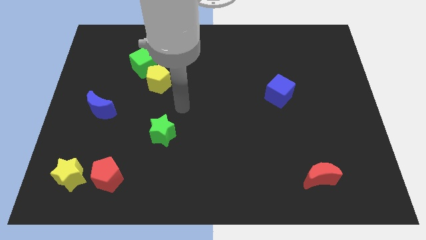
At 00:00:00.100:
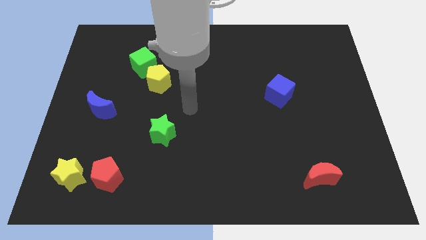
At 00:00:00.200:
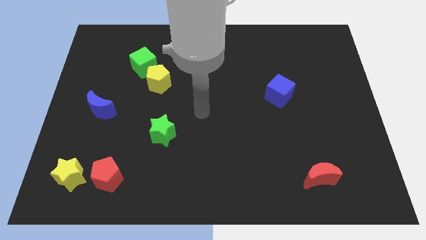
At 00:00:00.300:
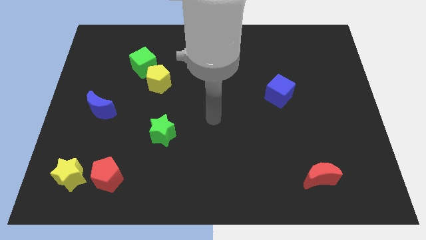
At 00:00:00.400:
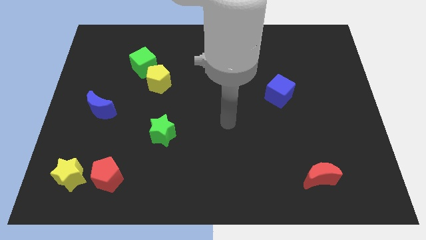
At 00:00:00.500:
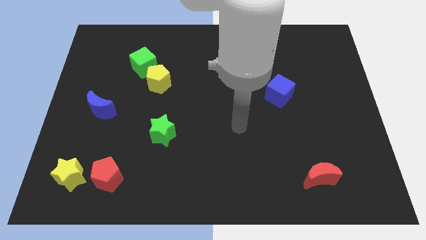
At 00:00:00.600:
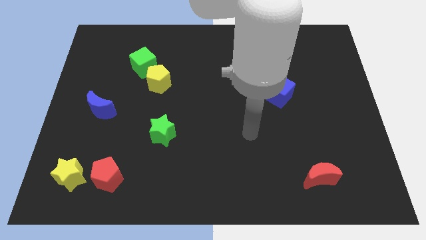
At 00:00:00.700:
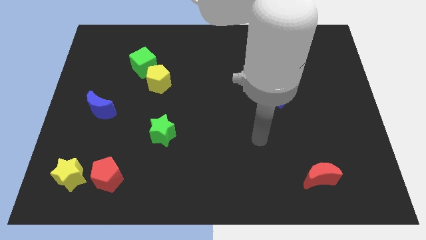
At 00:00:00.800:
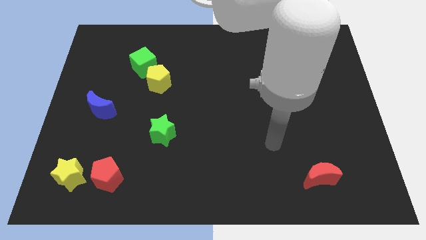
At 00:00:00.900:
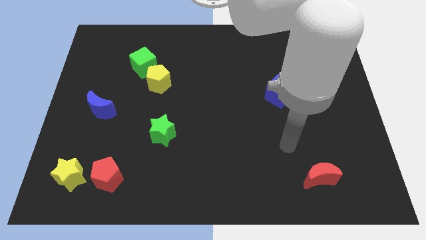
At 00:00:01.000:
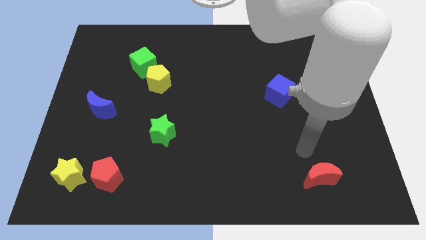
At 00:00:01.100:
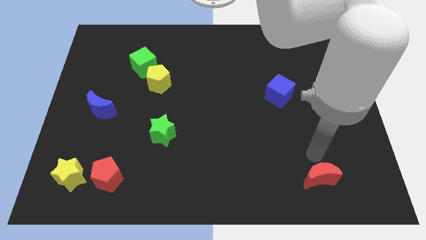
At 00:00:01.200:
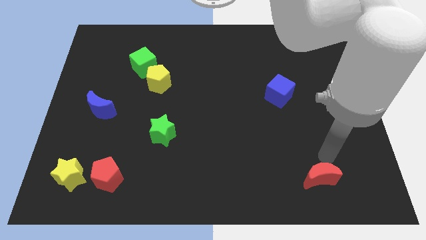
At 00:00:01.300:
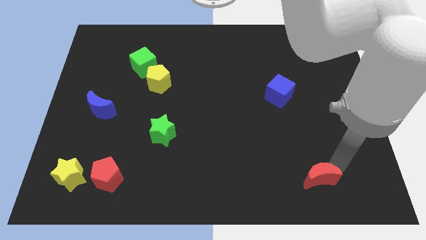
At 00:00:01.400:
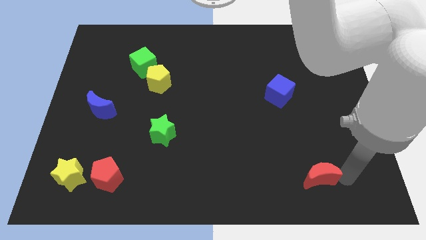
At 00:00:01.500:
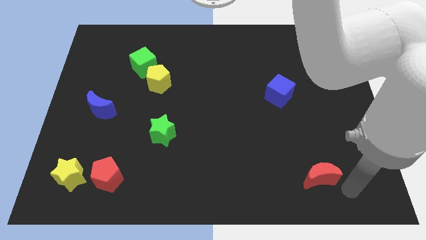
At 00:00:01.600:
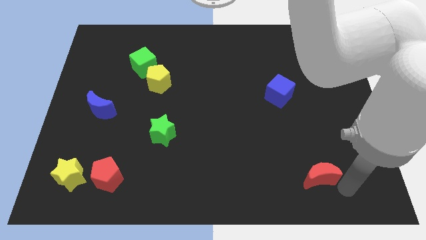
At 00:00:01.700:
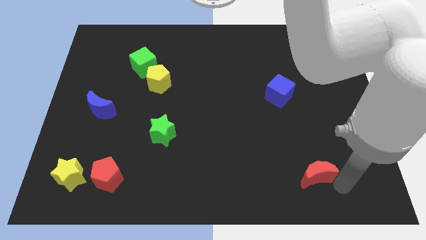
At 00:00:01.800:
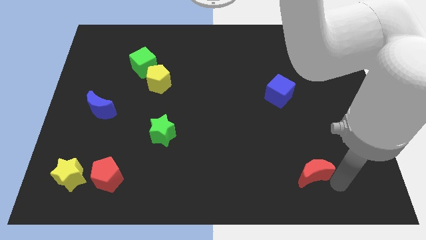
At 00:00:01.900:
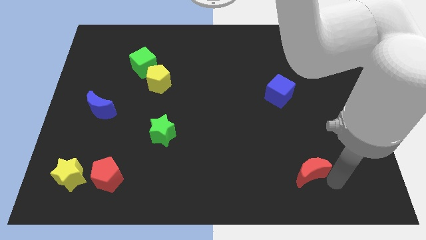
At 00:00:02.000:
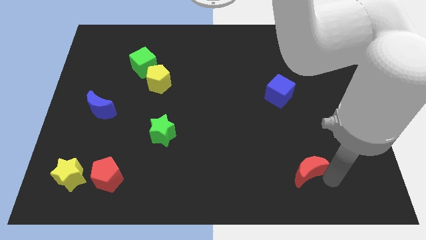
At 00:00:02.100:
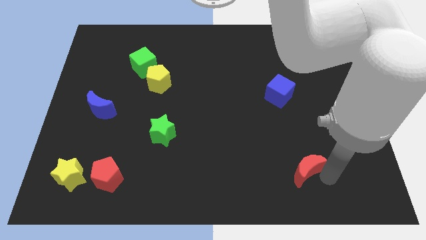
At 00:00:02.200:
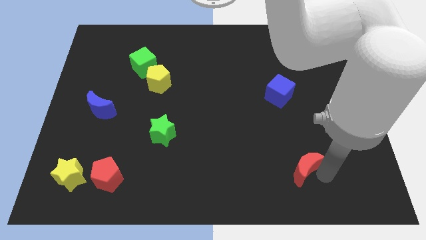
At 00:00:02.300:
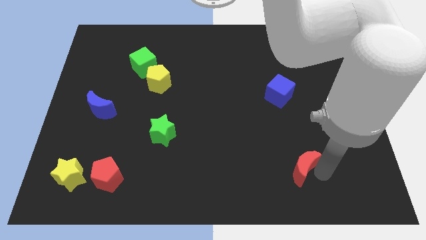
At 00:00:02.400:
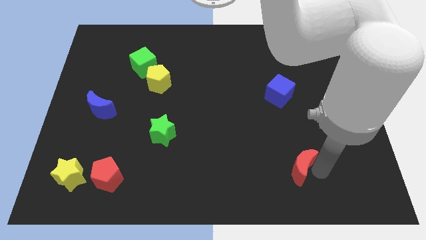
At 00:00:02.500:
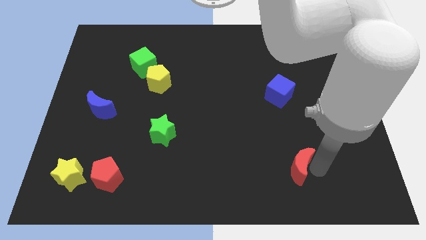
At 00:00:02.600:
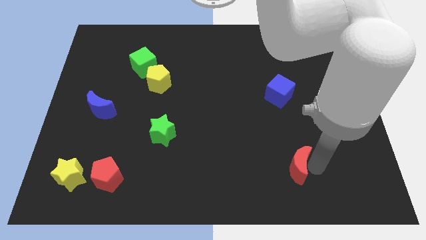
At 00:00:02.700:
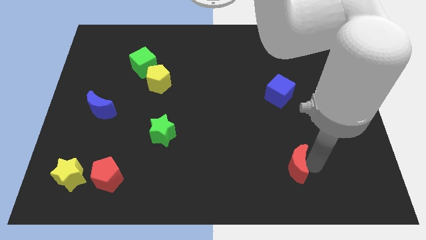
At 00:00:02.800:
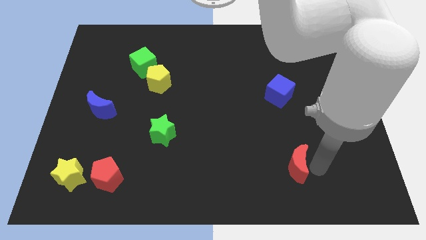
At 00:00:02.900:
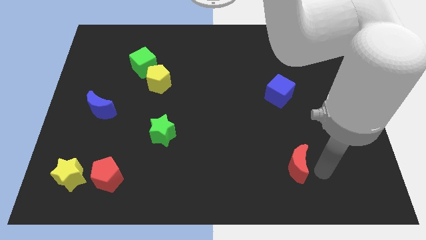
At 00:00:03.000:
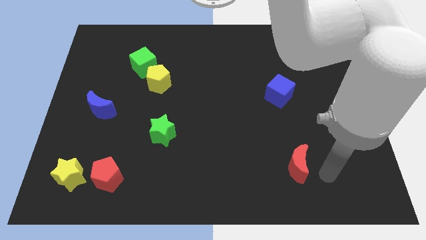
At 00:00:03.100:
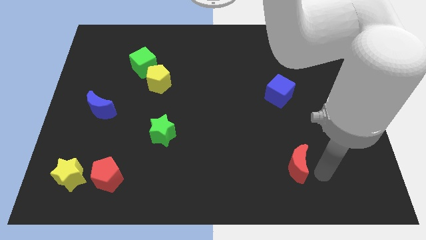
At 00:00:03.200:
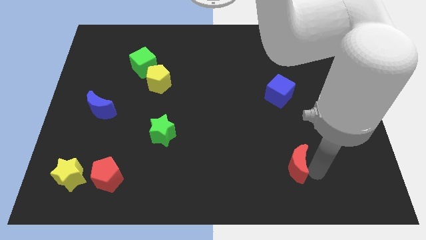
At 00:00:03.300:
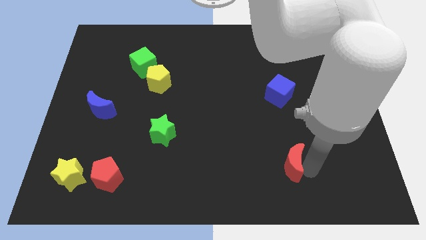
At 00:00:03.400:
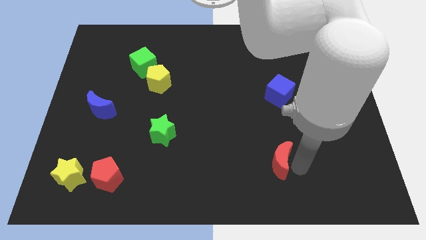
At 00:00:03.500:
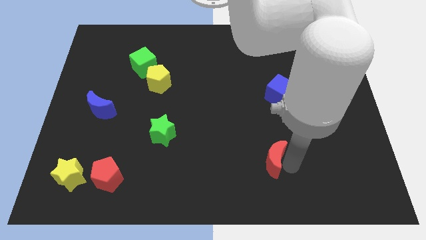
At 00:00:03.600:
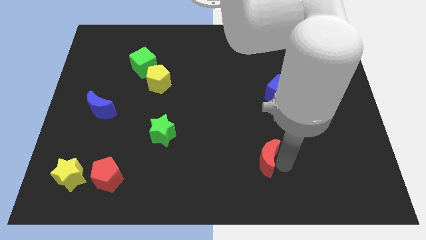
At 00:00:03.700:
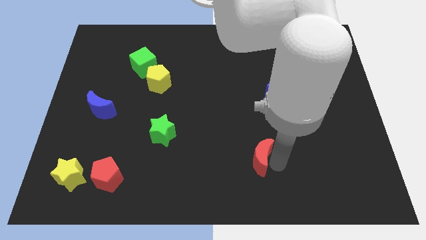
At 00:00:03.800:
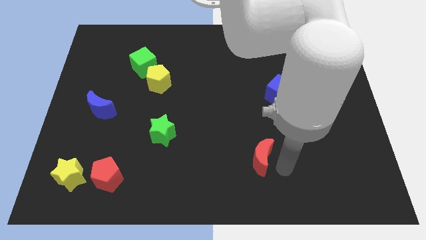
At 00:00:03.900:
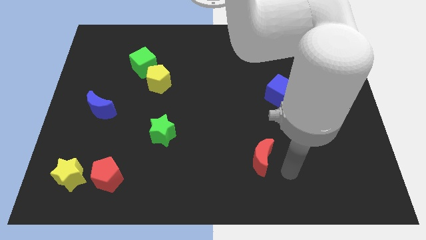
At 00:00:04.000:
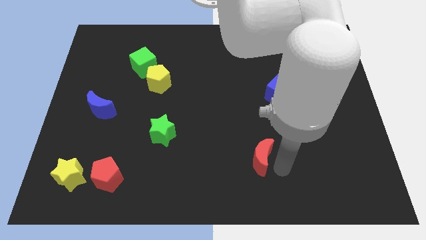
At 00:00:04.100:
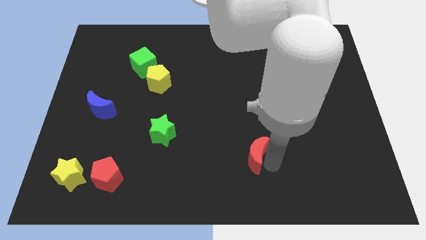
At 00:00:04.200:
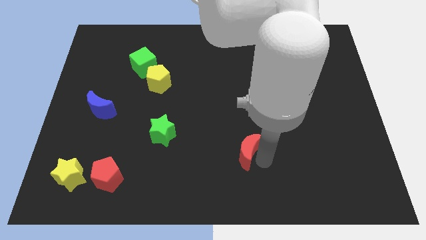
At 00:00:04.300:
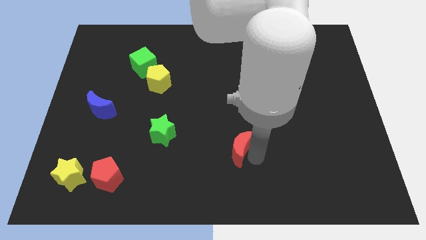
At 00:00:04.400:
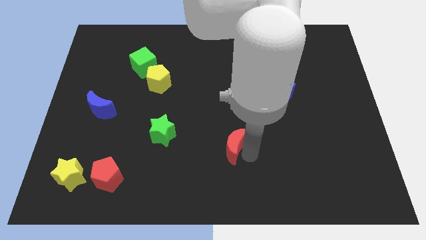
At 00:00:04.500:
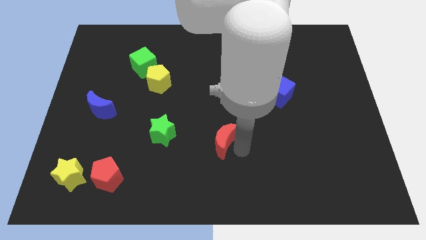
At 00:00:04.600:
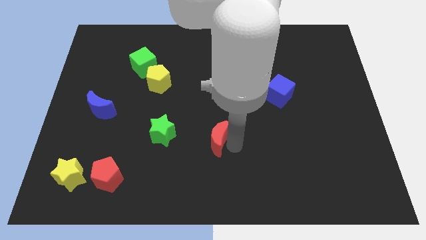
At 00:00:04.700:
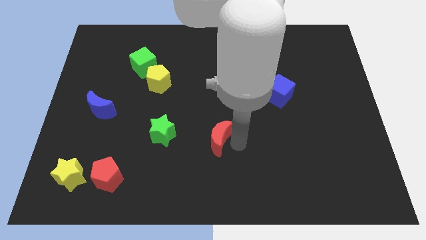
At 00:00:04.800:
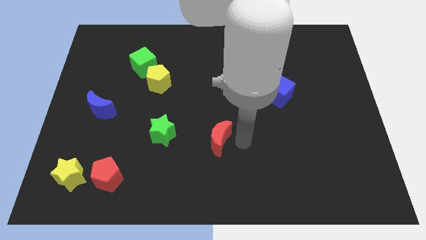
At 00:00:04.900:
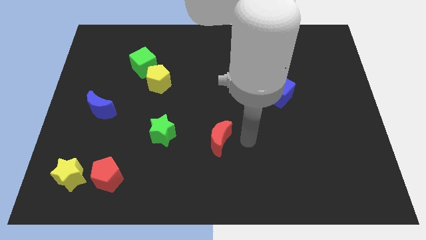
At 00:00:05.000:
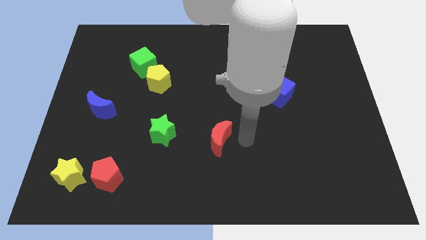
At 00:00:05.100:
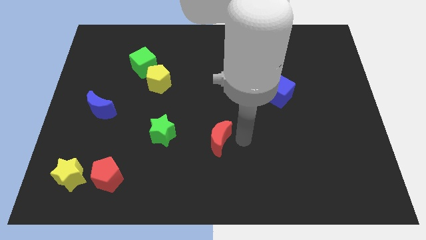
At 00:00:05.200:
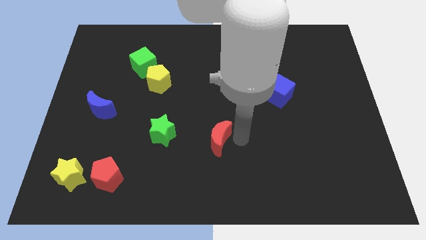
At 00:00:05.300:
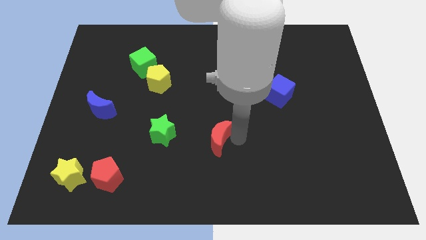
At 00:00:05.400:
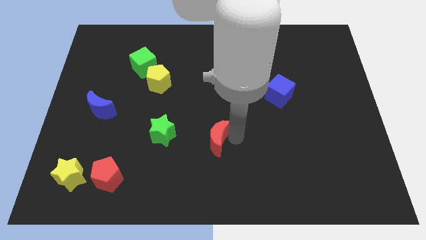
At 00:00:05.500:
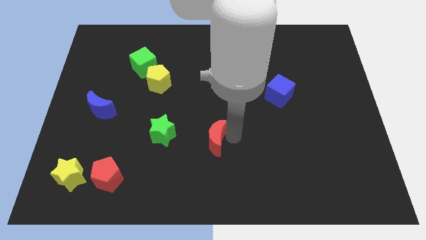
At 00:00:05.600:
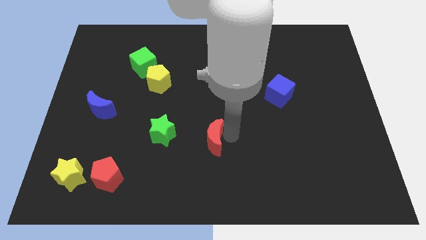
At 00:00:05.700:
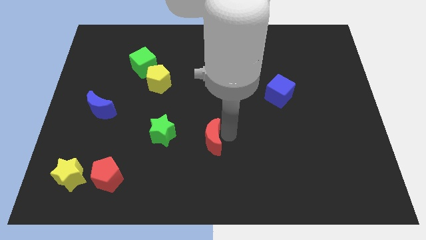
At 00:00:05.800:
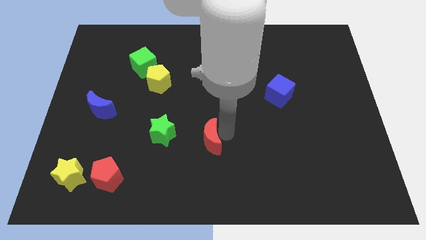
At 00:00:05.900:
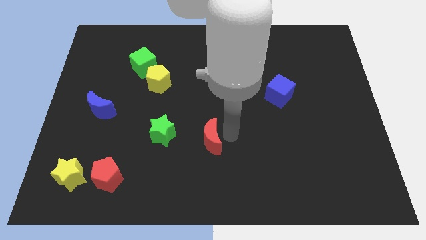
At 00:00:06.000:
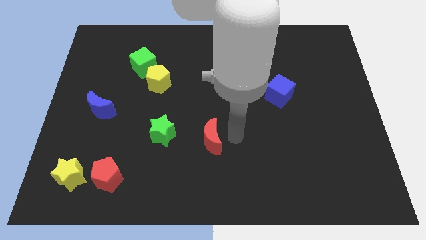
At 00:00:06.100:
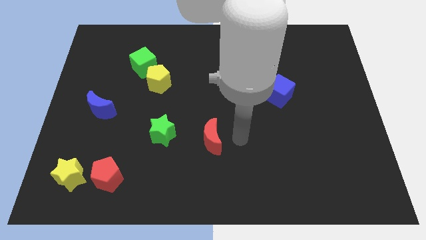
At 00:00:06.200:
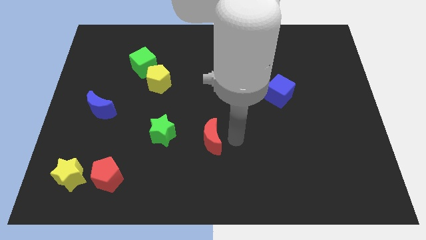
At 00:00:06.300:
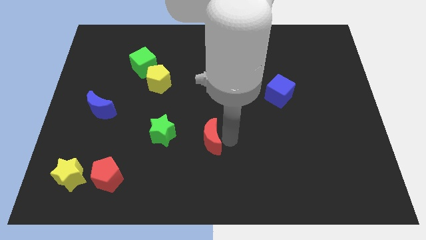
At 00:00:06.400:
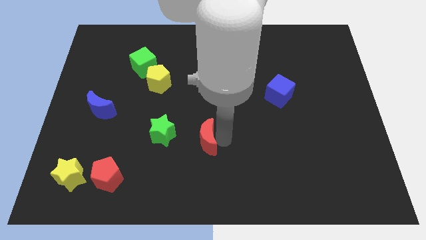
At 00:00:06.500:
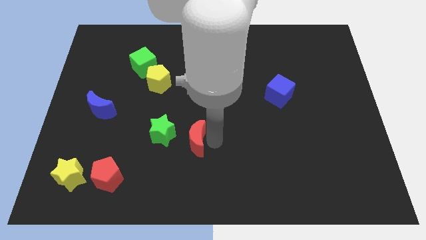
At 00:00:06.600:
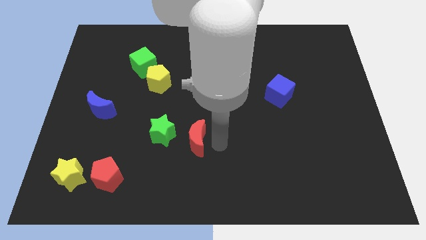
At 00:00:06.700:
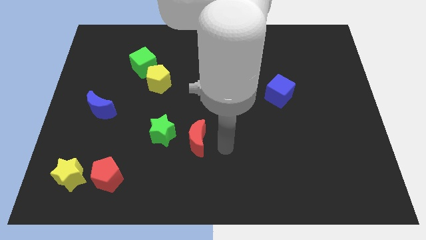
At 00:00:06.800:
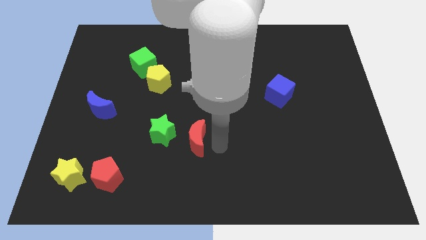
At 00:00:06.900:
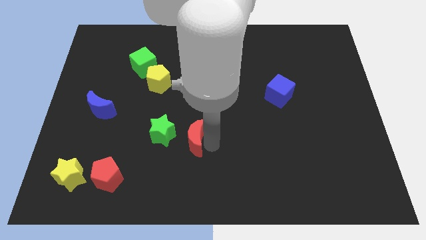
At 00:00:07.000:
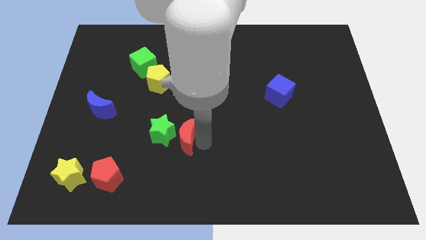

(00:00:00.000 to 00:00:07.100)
push the red moon close to the green star
